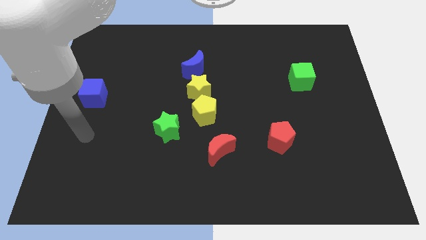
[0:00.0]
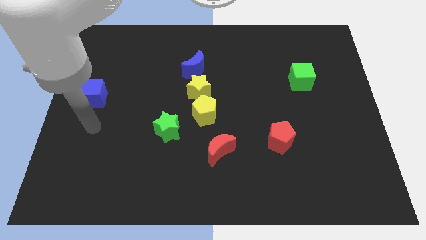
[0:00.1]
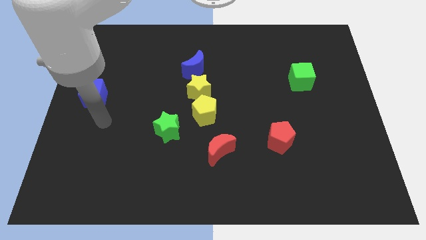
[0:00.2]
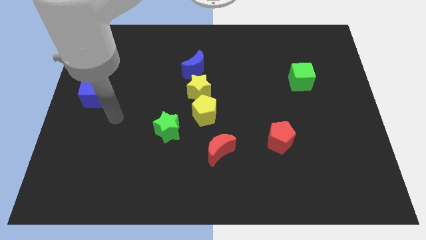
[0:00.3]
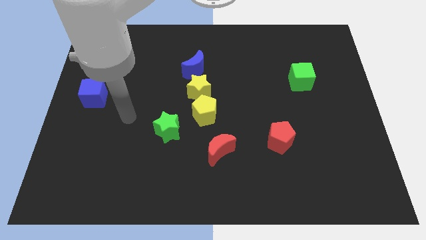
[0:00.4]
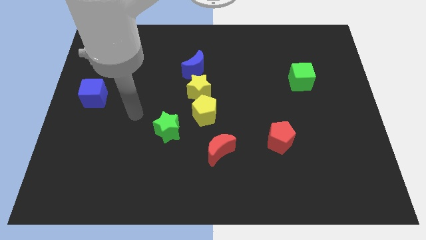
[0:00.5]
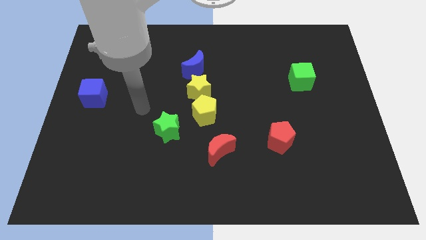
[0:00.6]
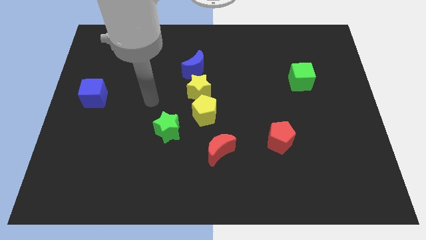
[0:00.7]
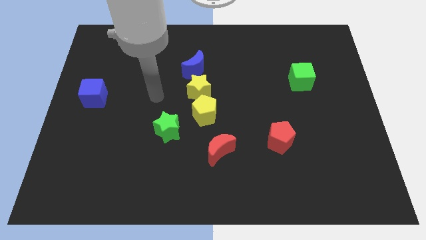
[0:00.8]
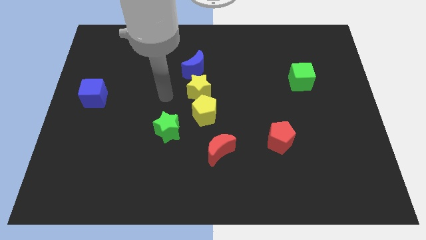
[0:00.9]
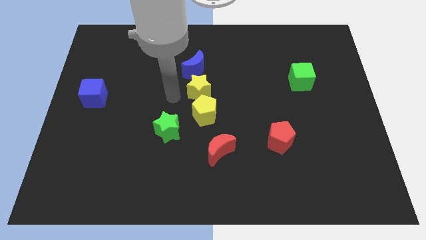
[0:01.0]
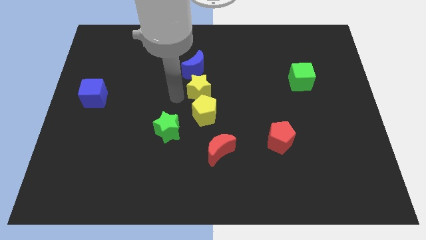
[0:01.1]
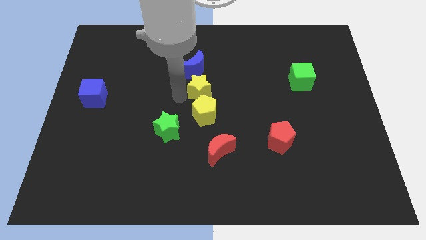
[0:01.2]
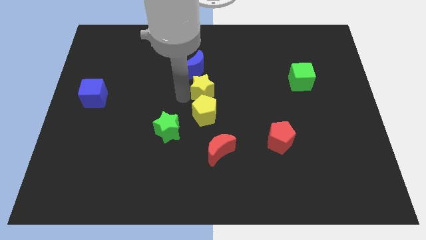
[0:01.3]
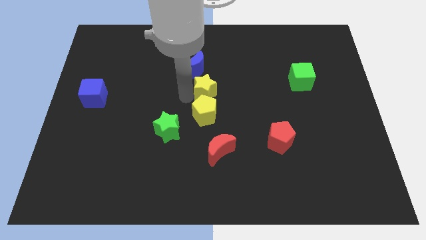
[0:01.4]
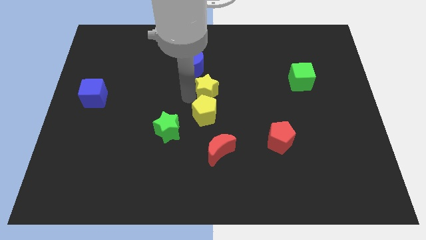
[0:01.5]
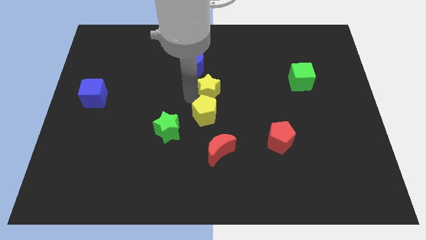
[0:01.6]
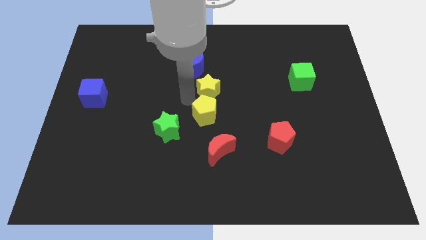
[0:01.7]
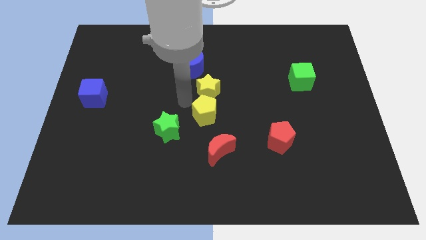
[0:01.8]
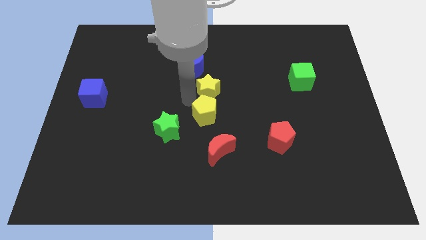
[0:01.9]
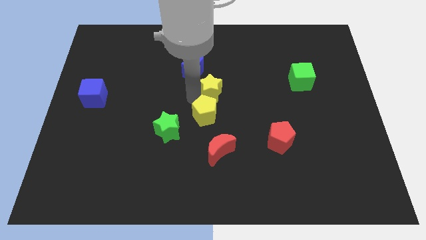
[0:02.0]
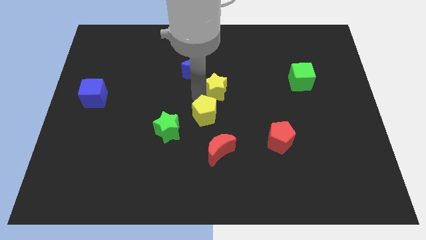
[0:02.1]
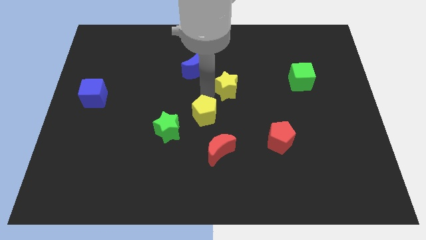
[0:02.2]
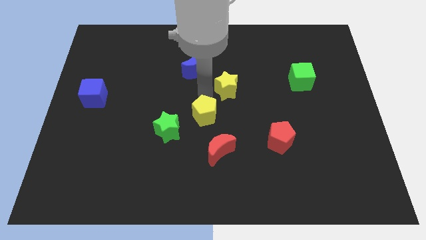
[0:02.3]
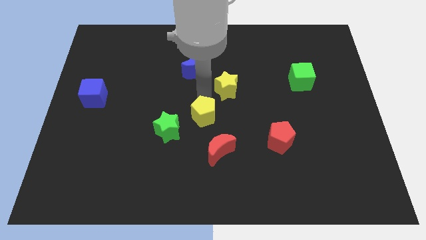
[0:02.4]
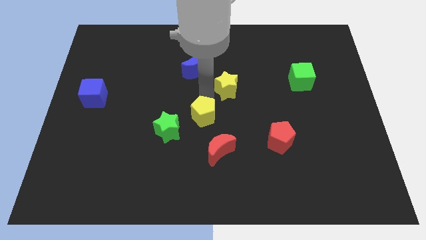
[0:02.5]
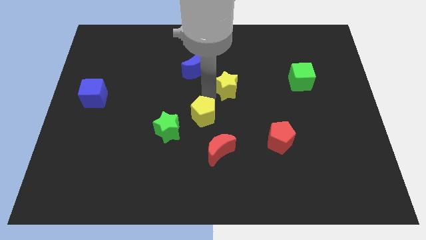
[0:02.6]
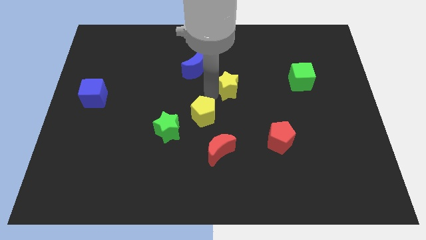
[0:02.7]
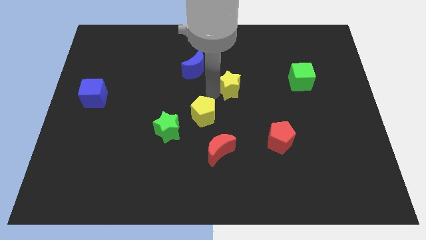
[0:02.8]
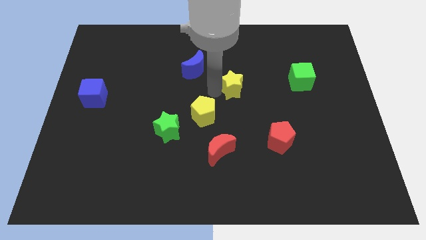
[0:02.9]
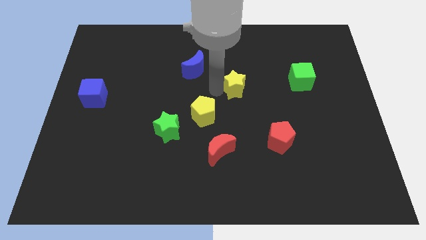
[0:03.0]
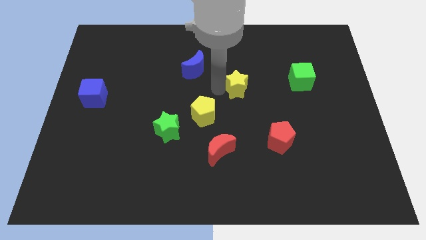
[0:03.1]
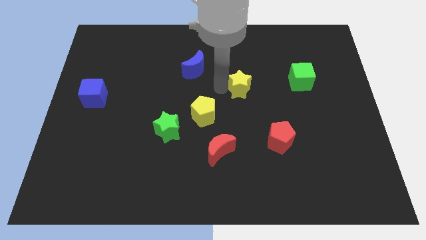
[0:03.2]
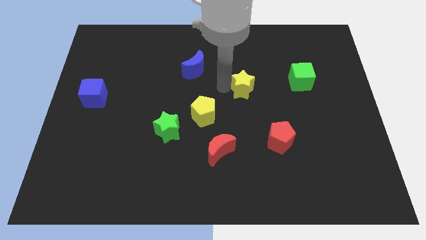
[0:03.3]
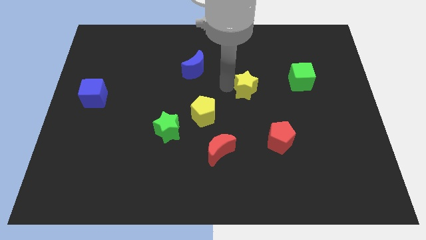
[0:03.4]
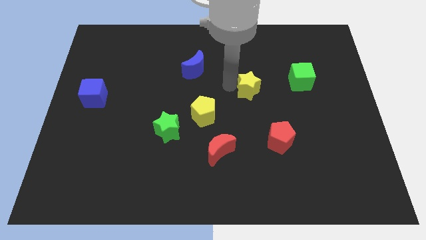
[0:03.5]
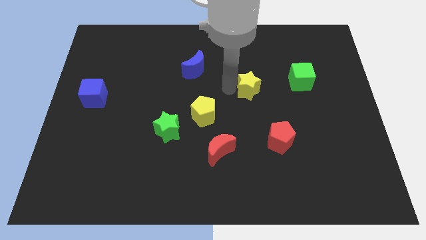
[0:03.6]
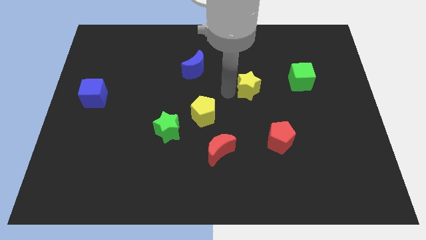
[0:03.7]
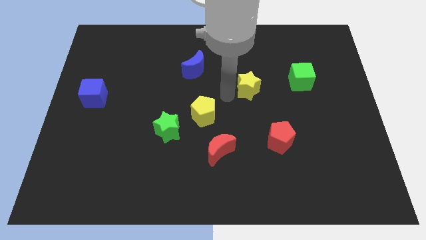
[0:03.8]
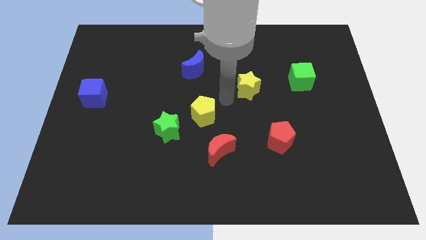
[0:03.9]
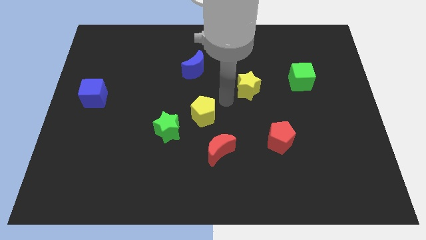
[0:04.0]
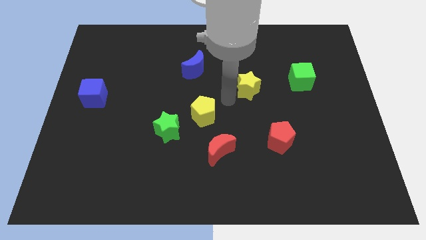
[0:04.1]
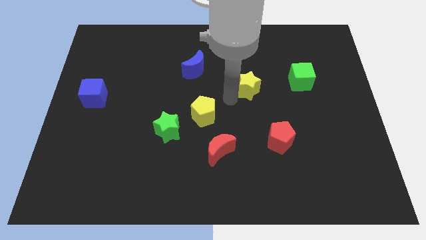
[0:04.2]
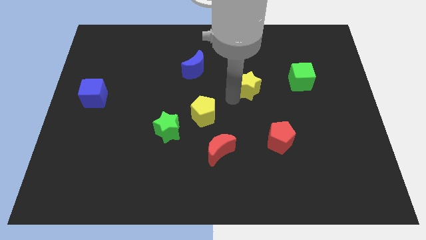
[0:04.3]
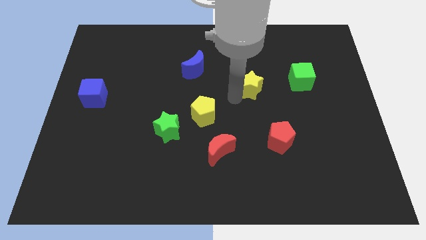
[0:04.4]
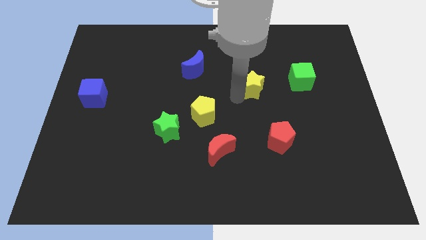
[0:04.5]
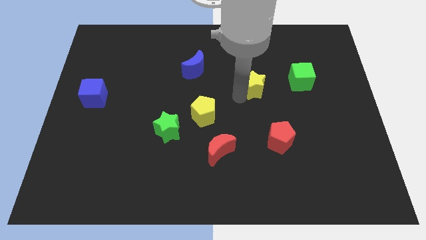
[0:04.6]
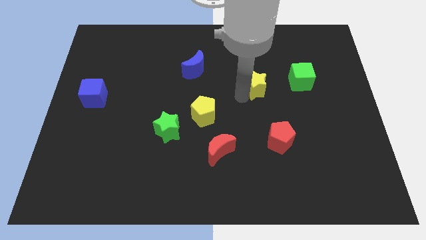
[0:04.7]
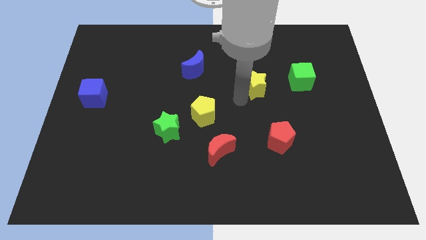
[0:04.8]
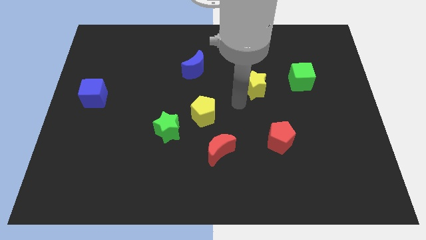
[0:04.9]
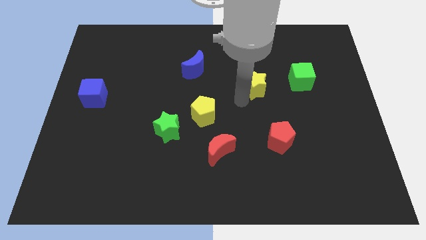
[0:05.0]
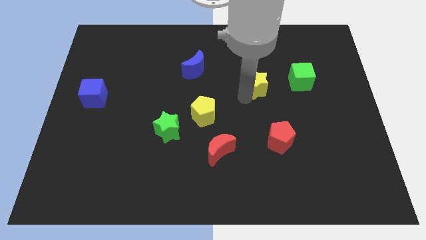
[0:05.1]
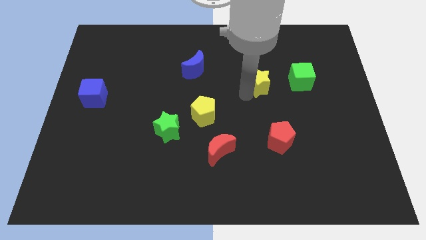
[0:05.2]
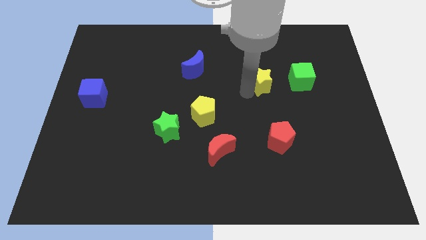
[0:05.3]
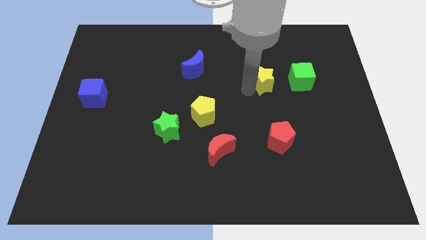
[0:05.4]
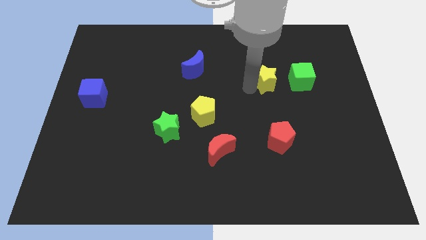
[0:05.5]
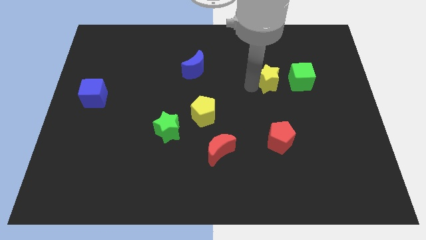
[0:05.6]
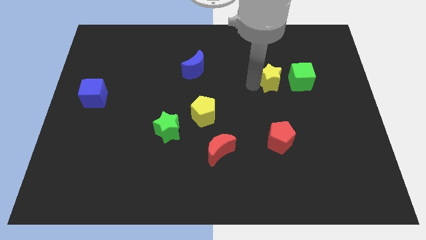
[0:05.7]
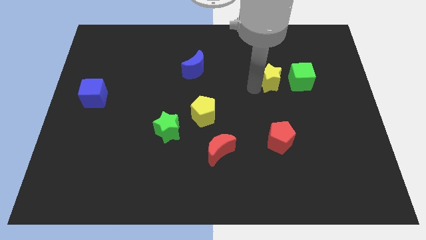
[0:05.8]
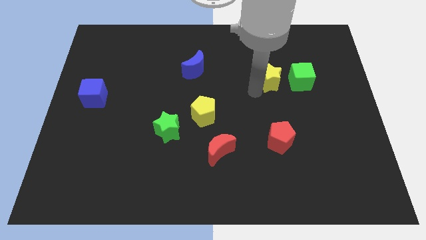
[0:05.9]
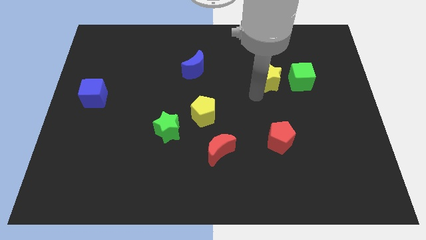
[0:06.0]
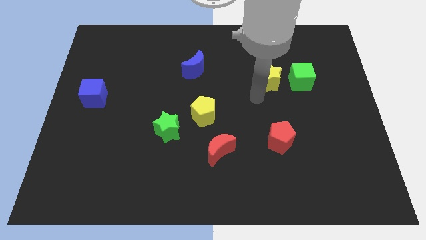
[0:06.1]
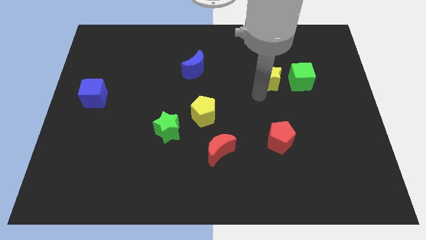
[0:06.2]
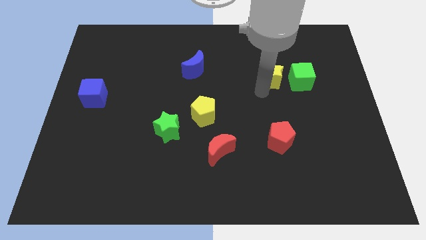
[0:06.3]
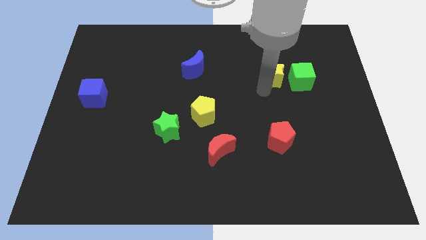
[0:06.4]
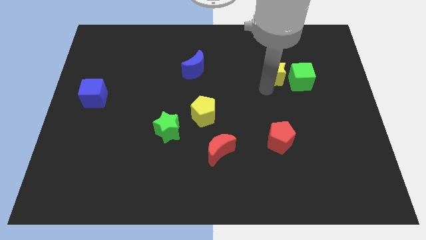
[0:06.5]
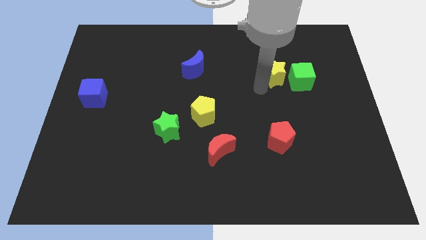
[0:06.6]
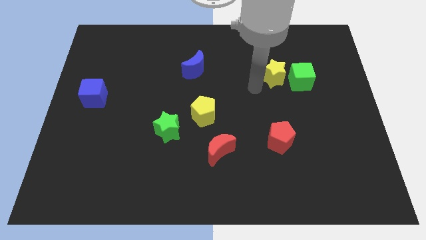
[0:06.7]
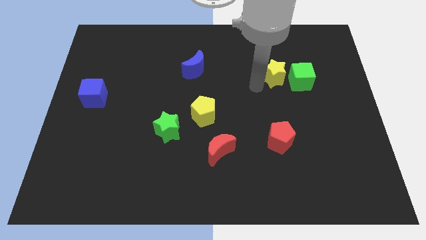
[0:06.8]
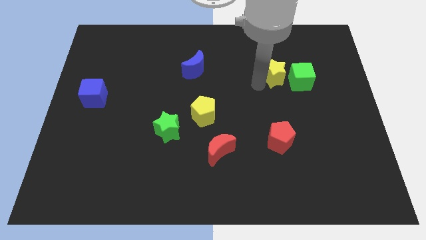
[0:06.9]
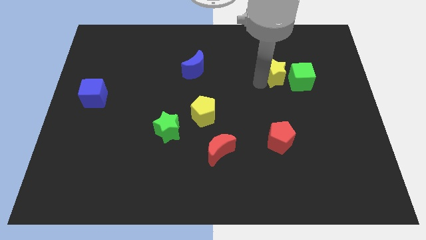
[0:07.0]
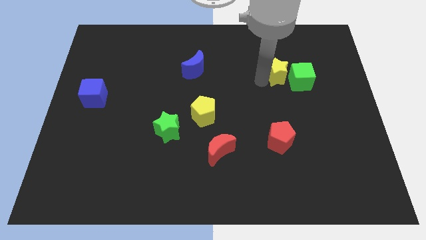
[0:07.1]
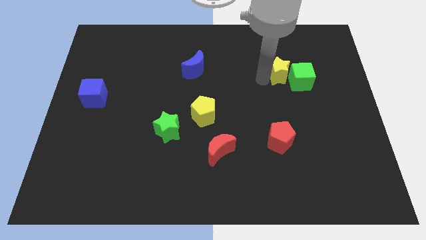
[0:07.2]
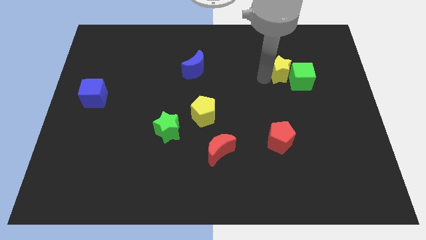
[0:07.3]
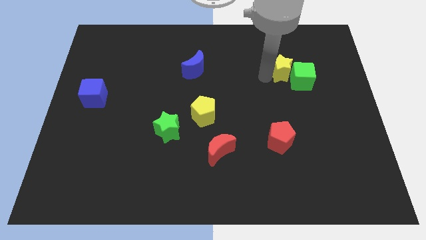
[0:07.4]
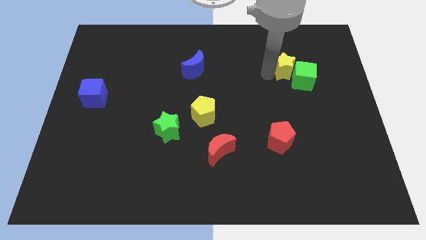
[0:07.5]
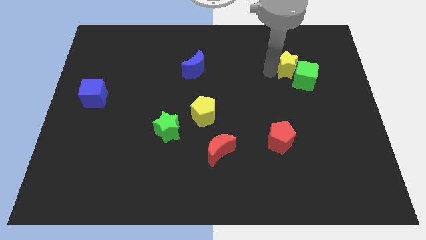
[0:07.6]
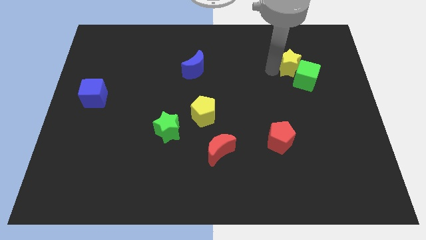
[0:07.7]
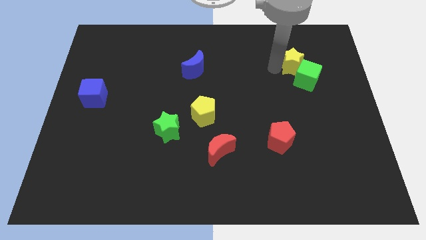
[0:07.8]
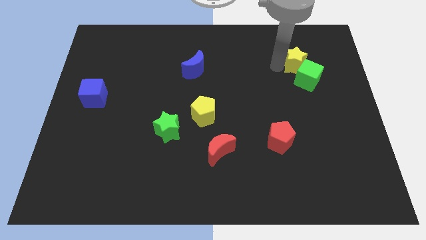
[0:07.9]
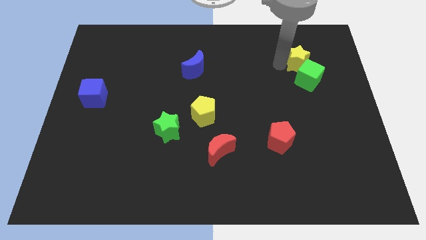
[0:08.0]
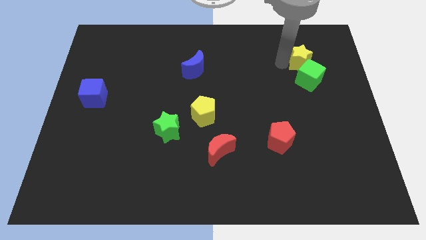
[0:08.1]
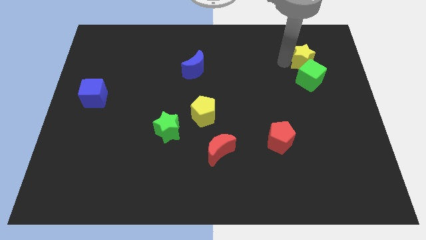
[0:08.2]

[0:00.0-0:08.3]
put the yellow star to the top right of the green cube
